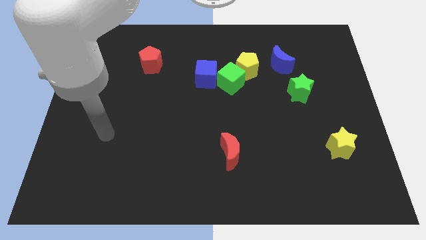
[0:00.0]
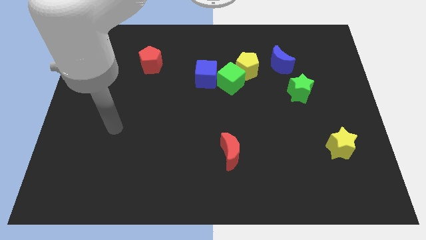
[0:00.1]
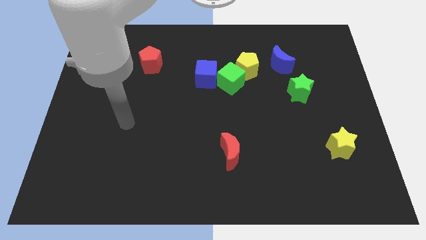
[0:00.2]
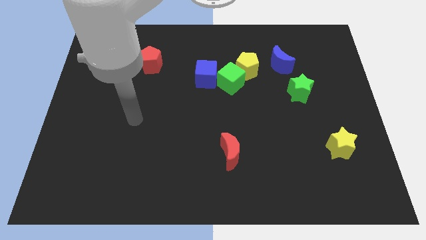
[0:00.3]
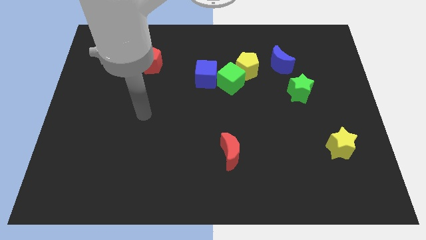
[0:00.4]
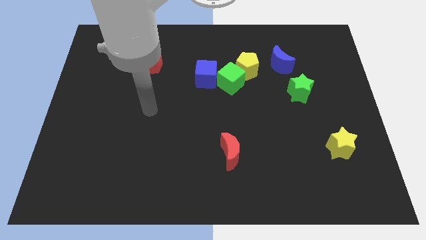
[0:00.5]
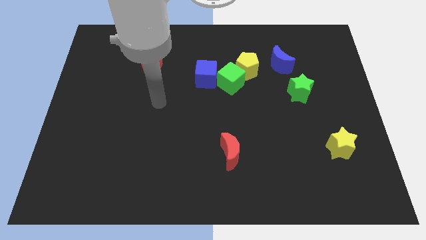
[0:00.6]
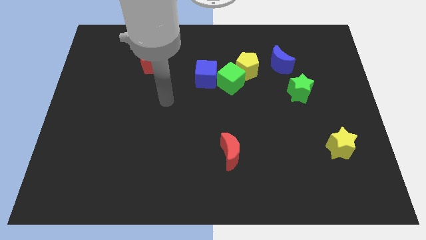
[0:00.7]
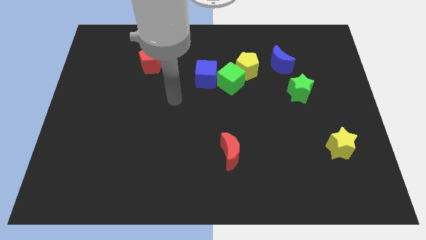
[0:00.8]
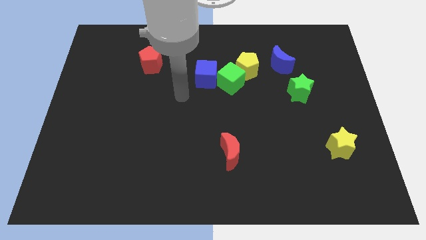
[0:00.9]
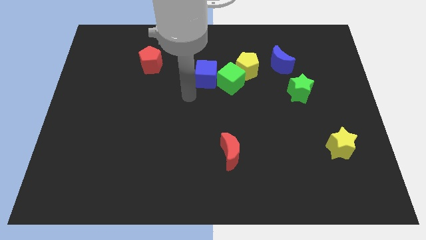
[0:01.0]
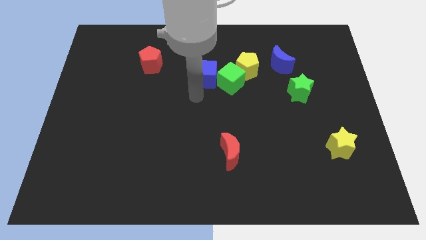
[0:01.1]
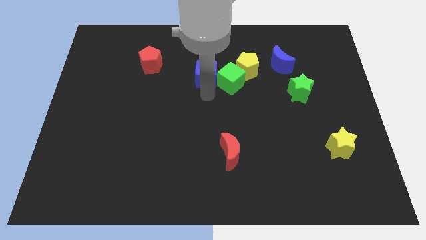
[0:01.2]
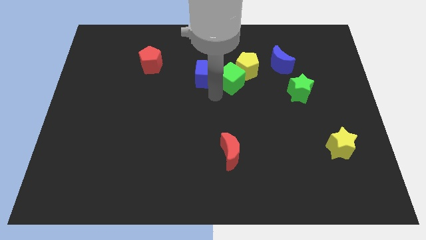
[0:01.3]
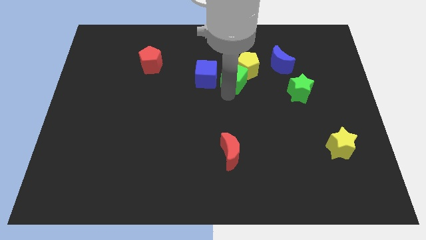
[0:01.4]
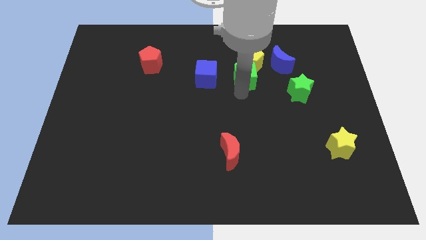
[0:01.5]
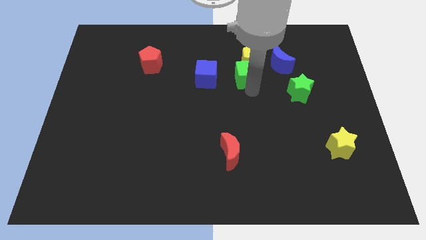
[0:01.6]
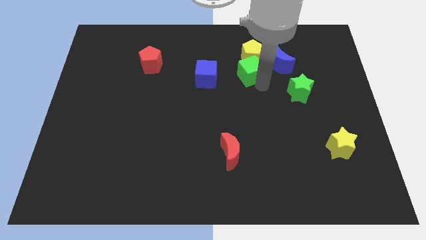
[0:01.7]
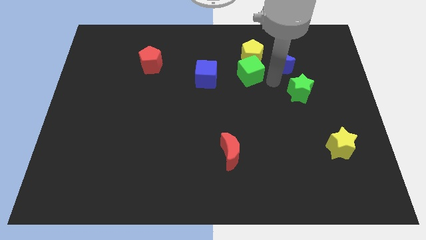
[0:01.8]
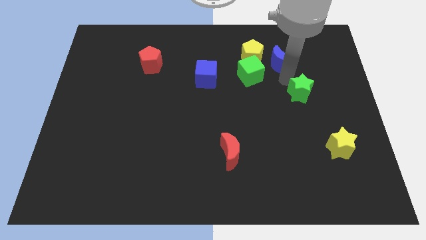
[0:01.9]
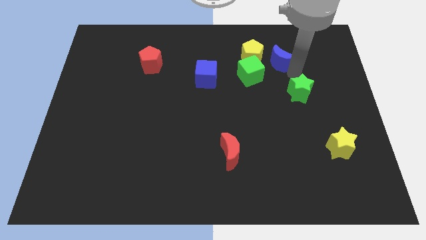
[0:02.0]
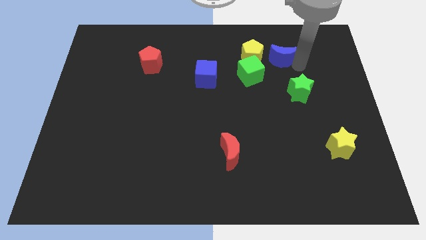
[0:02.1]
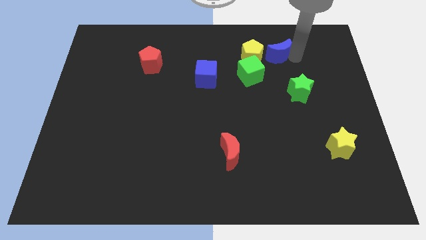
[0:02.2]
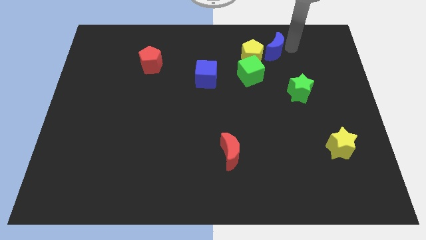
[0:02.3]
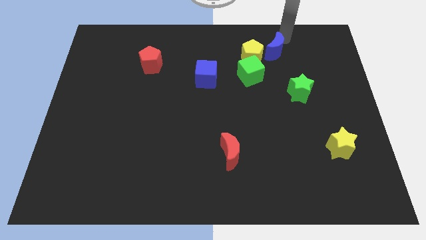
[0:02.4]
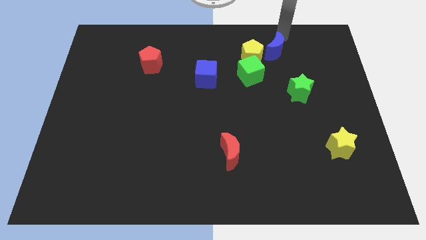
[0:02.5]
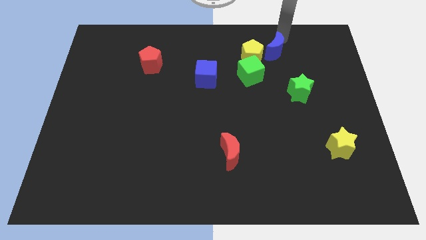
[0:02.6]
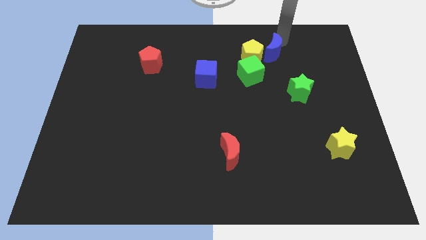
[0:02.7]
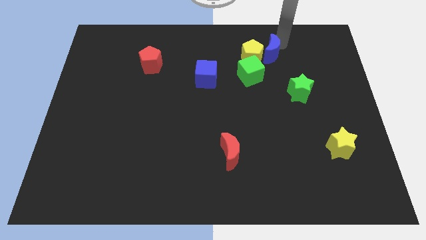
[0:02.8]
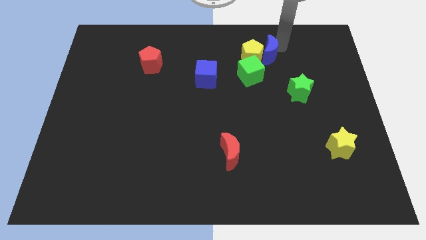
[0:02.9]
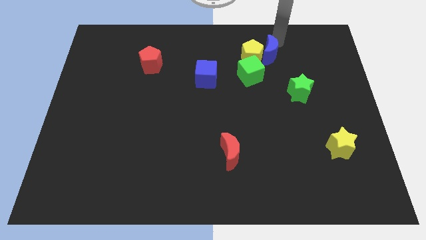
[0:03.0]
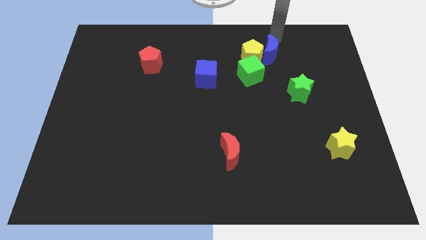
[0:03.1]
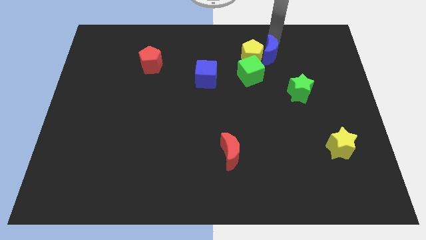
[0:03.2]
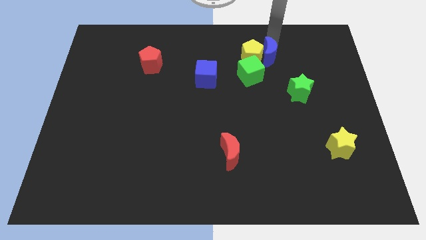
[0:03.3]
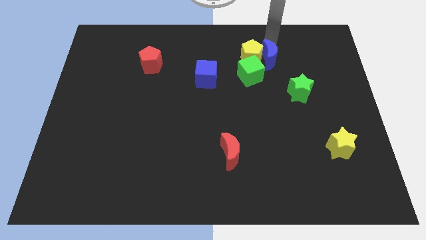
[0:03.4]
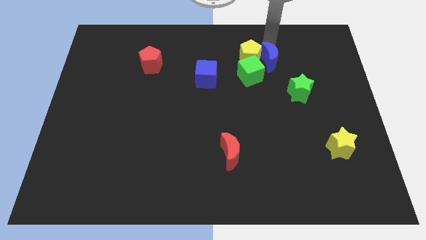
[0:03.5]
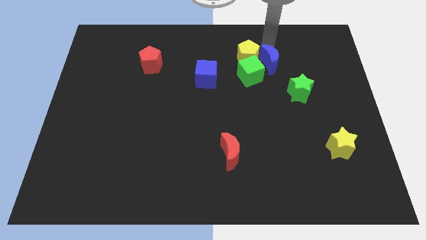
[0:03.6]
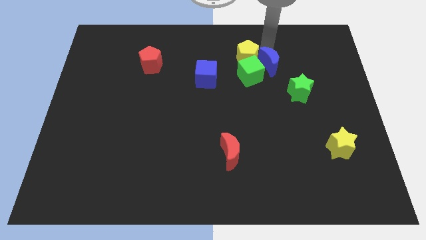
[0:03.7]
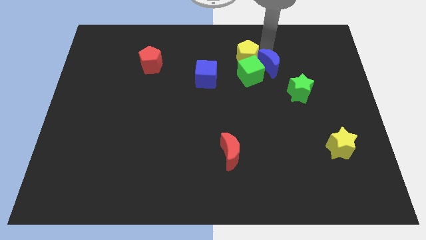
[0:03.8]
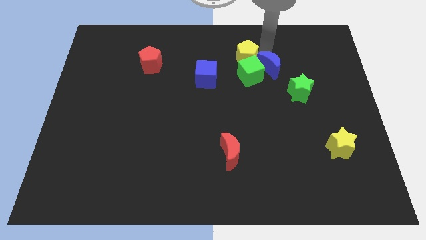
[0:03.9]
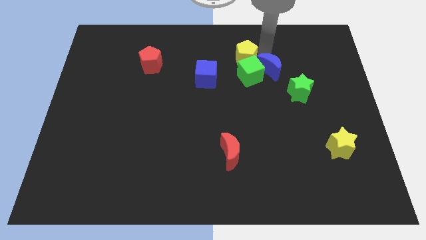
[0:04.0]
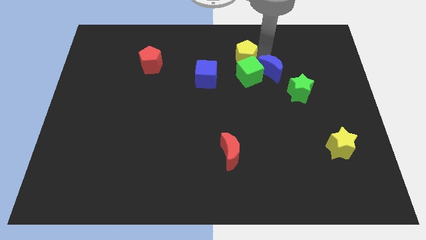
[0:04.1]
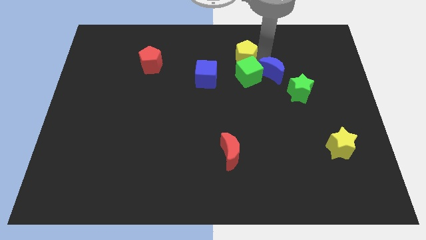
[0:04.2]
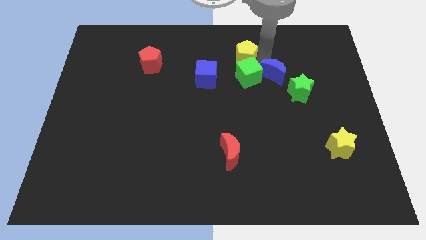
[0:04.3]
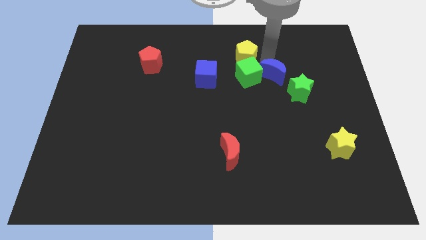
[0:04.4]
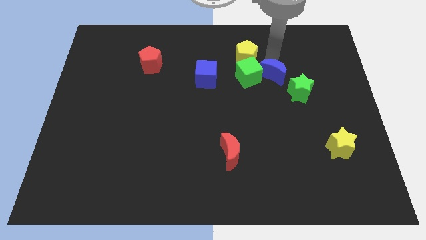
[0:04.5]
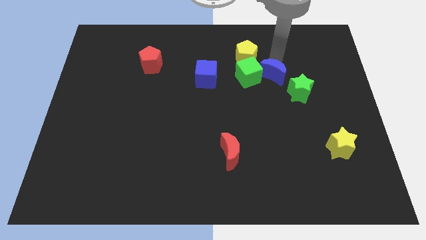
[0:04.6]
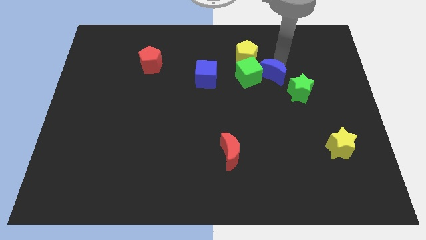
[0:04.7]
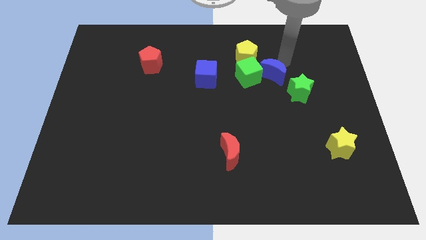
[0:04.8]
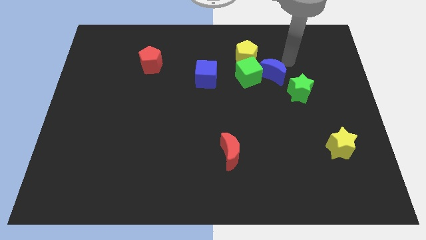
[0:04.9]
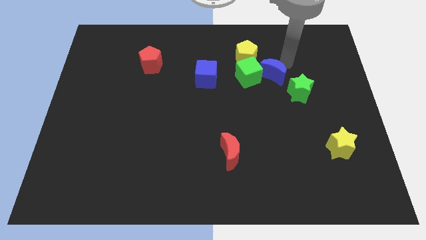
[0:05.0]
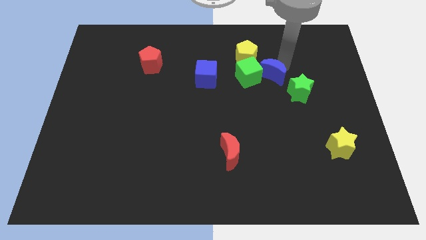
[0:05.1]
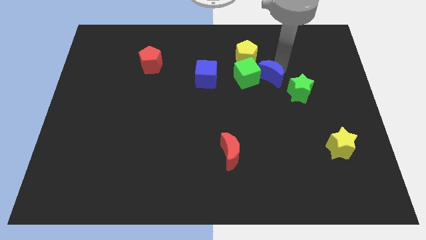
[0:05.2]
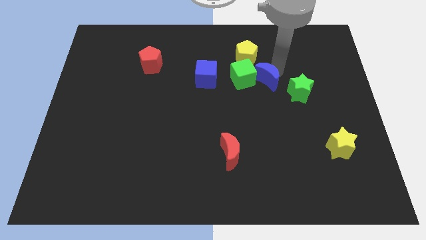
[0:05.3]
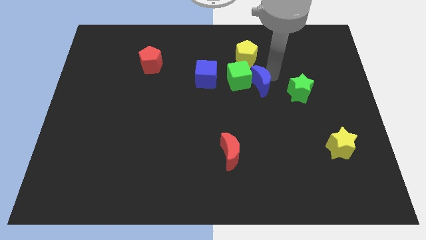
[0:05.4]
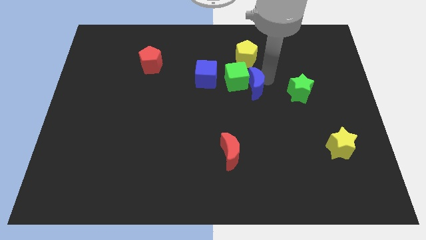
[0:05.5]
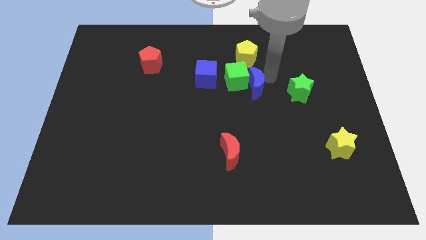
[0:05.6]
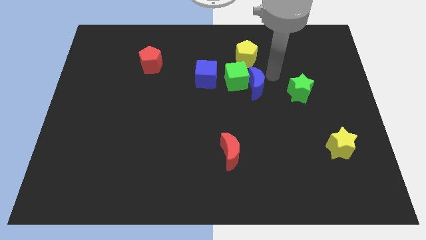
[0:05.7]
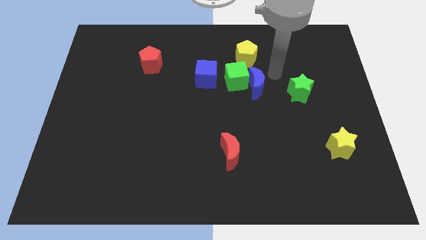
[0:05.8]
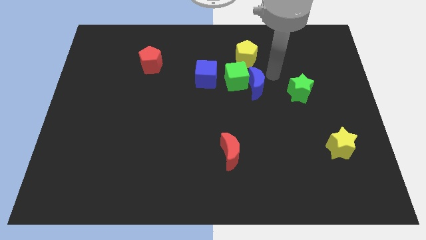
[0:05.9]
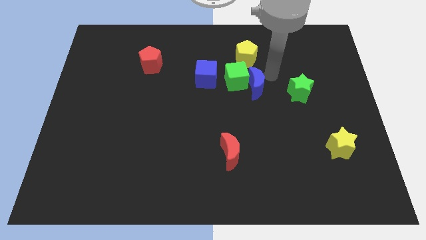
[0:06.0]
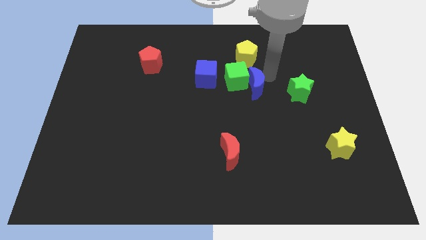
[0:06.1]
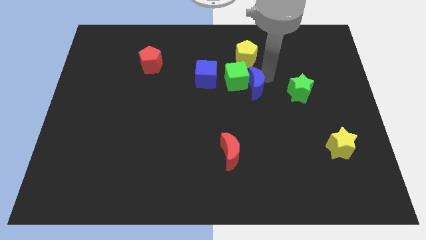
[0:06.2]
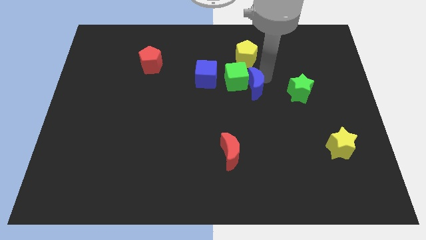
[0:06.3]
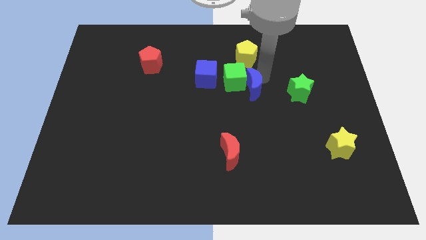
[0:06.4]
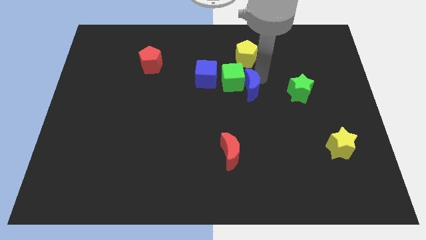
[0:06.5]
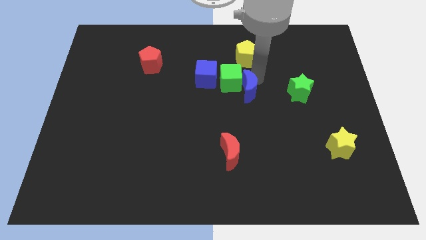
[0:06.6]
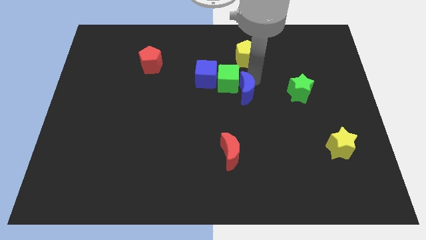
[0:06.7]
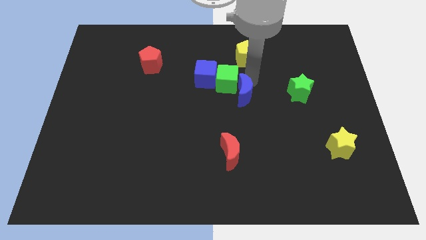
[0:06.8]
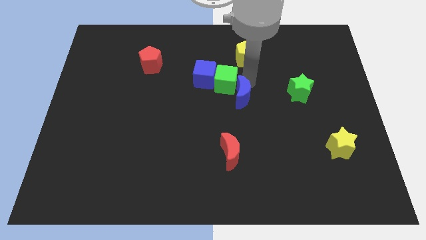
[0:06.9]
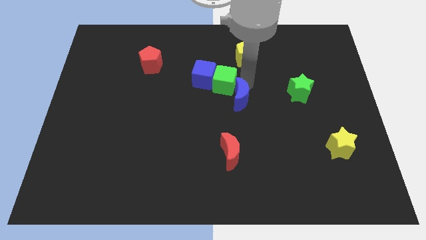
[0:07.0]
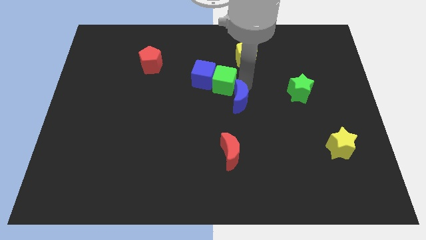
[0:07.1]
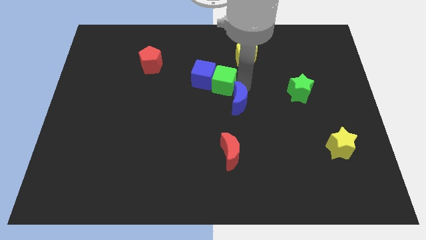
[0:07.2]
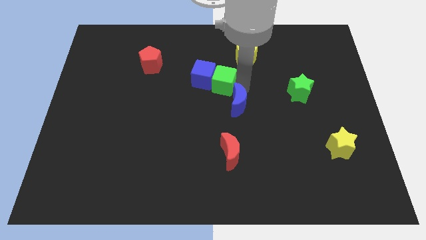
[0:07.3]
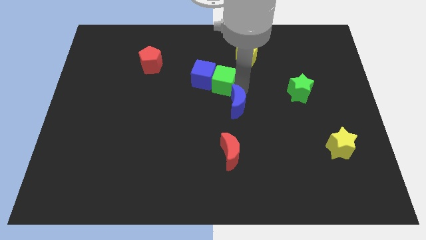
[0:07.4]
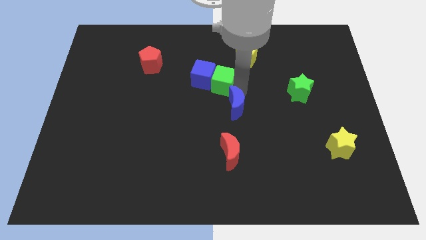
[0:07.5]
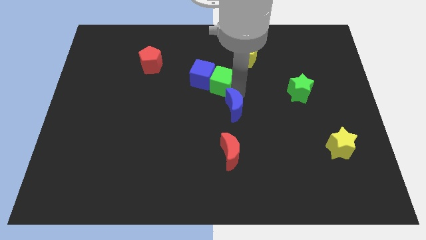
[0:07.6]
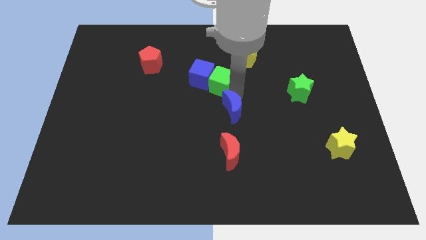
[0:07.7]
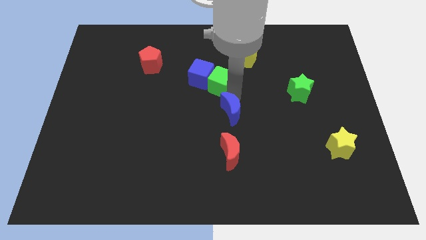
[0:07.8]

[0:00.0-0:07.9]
slide the blue moon downwards and left

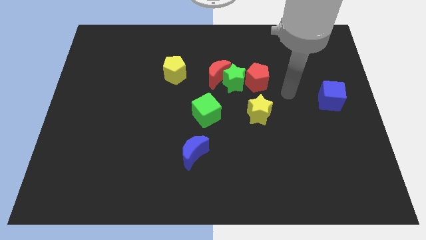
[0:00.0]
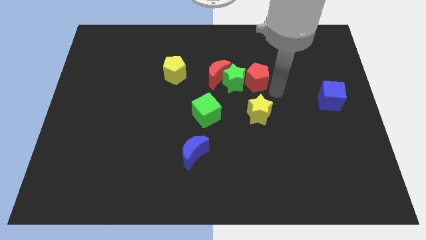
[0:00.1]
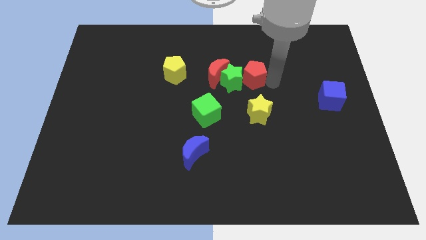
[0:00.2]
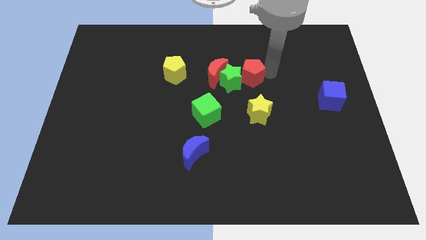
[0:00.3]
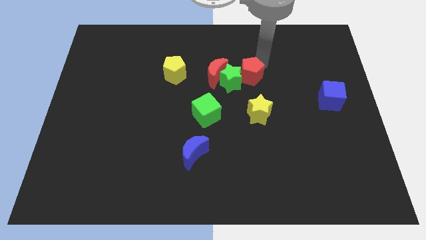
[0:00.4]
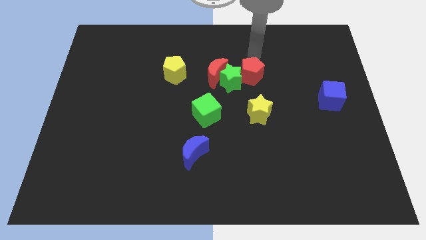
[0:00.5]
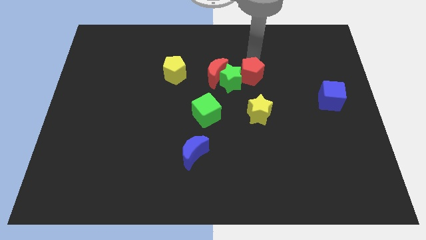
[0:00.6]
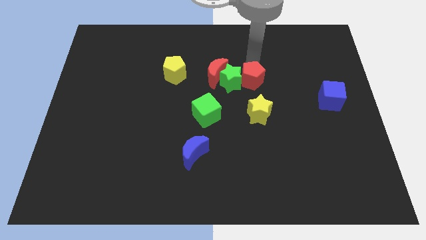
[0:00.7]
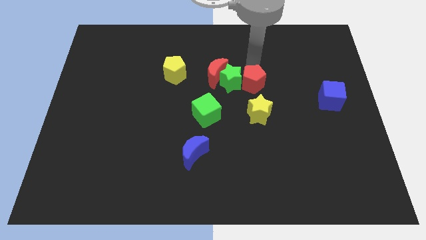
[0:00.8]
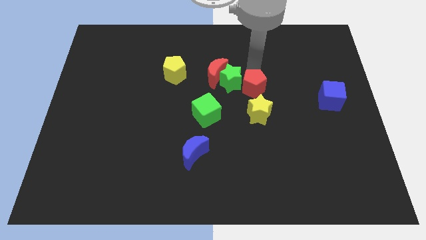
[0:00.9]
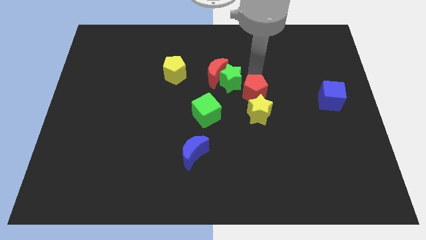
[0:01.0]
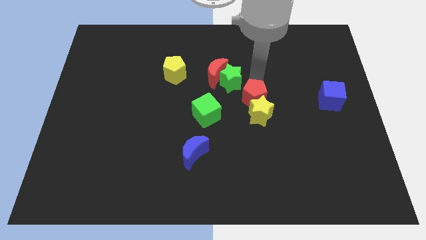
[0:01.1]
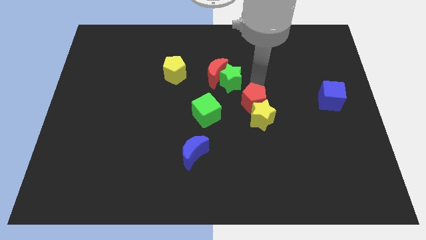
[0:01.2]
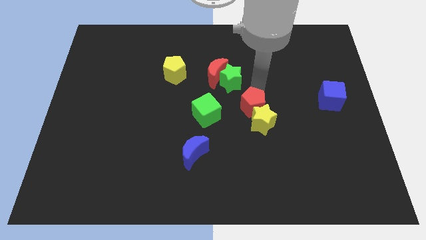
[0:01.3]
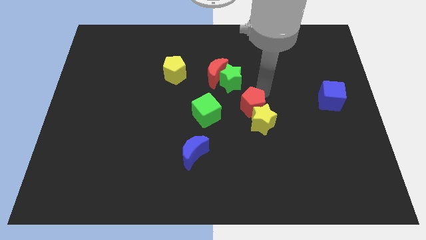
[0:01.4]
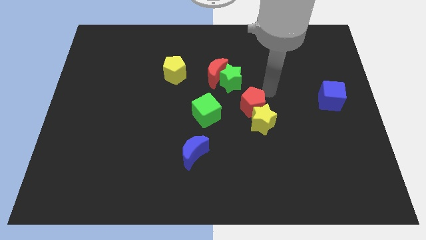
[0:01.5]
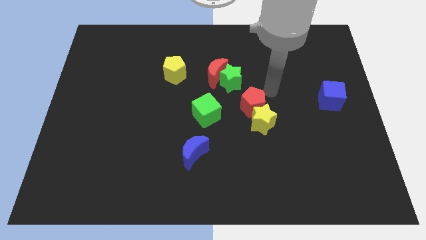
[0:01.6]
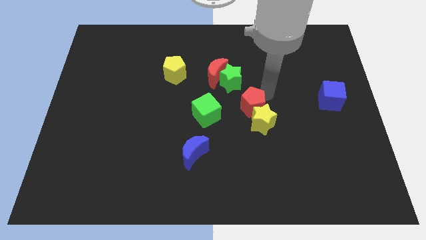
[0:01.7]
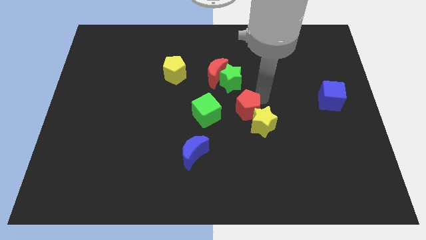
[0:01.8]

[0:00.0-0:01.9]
slightly slide the red pentagon down and then left
